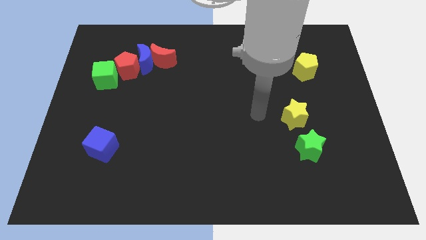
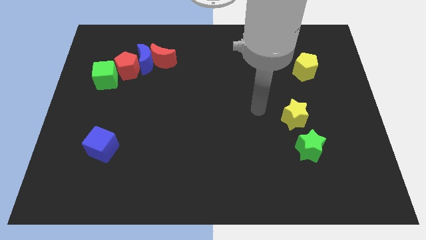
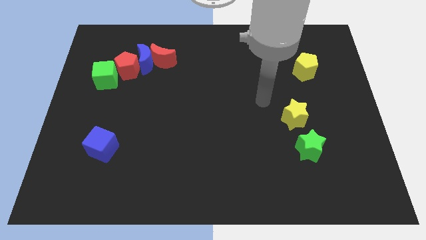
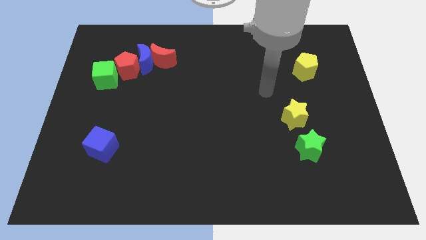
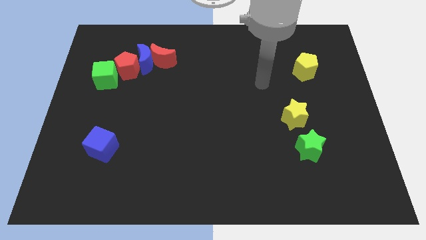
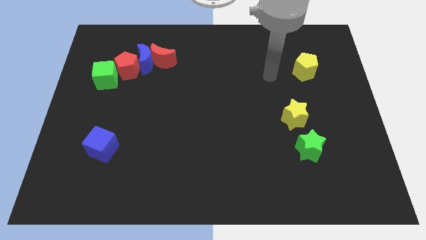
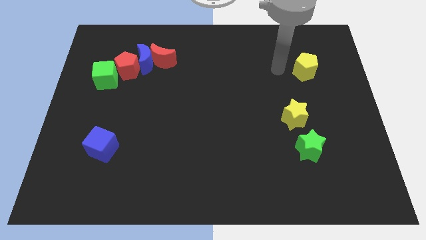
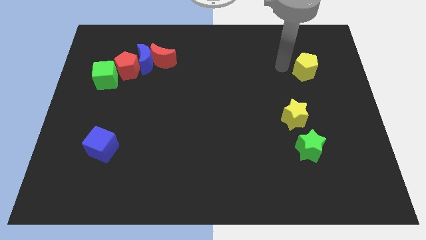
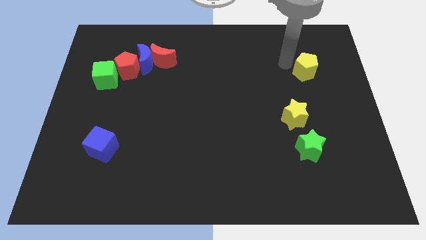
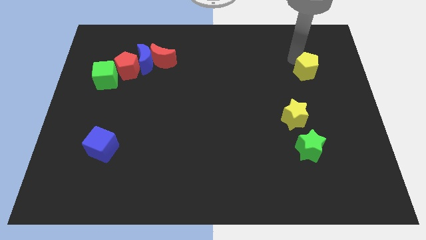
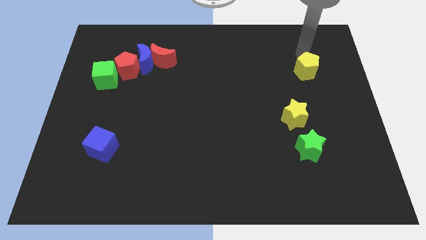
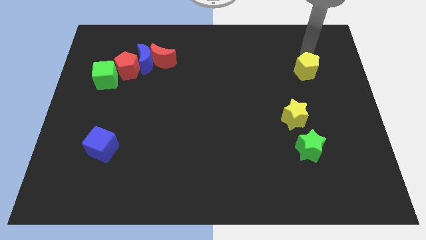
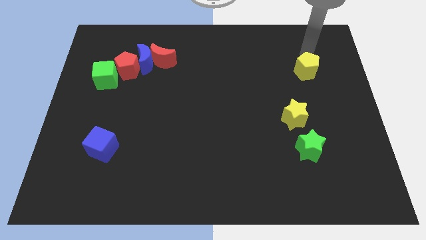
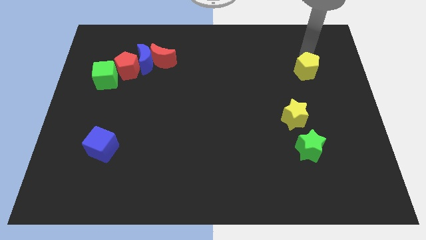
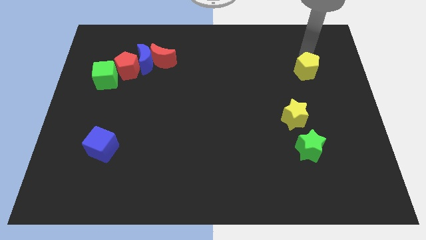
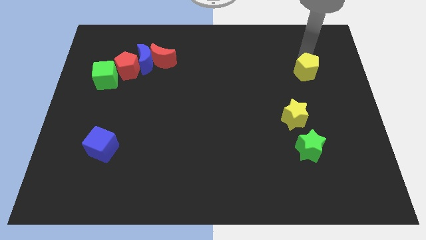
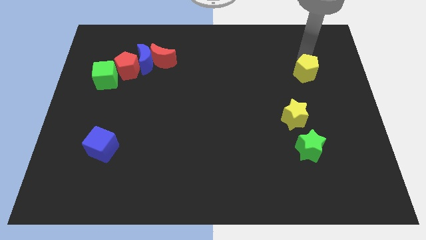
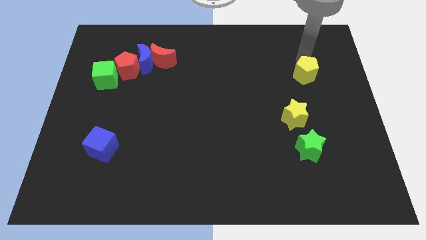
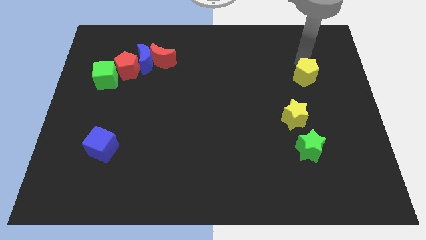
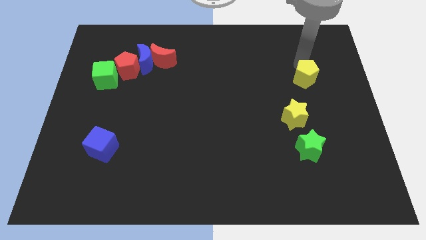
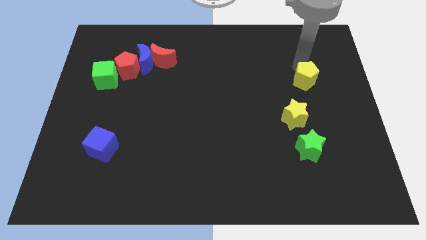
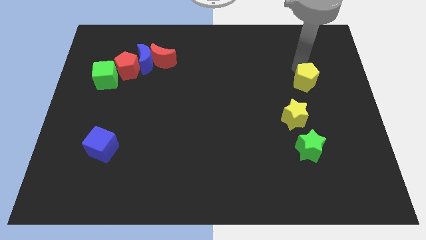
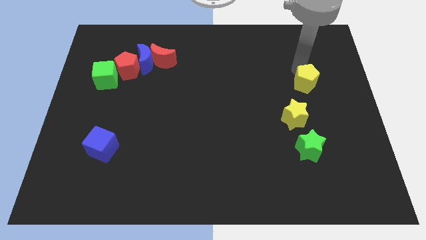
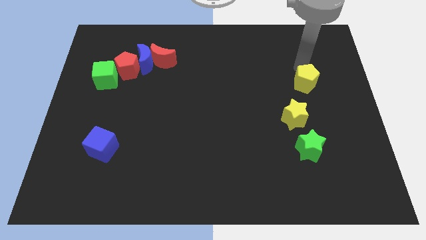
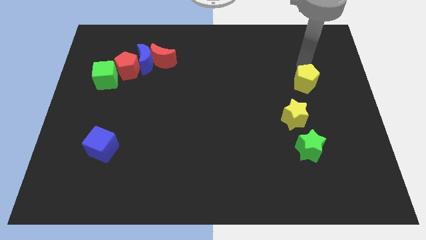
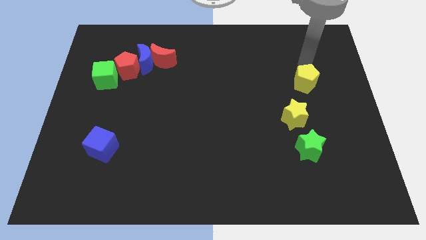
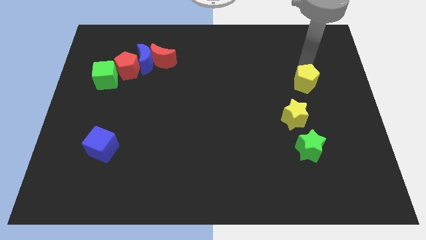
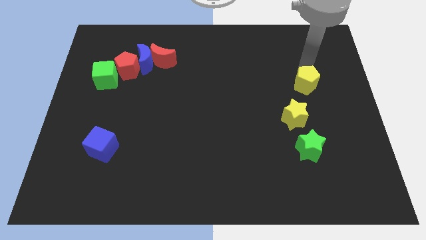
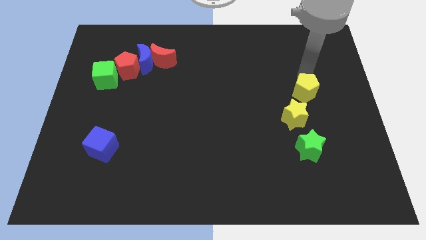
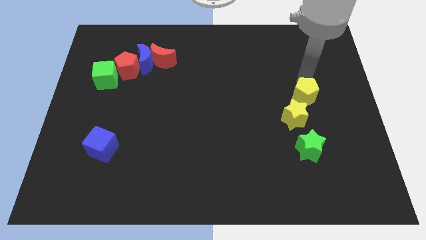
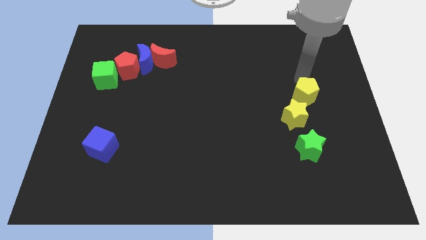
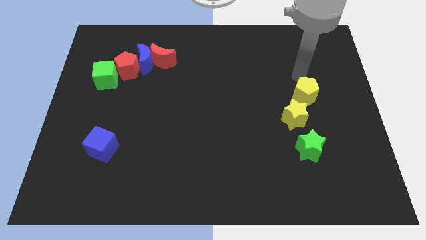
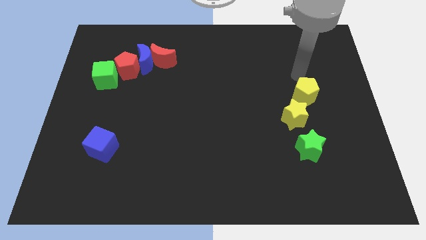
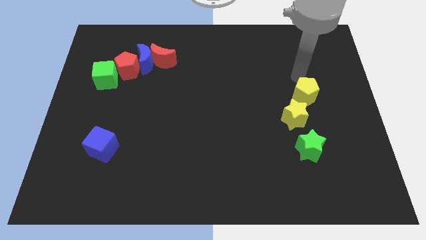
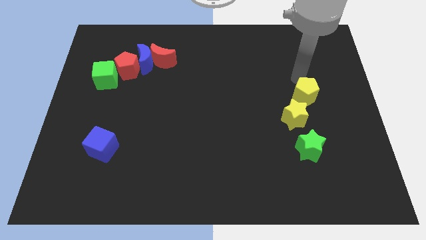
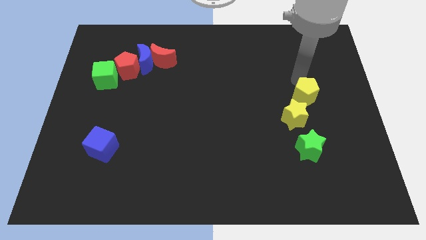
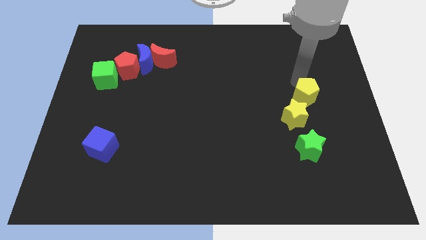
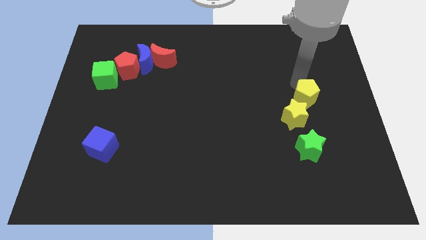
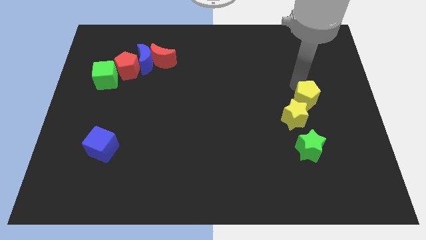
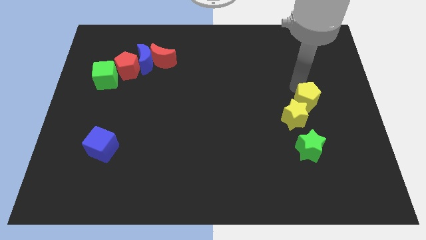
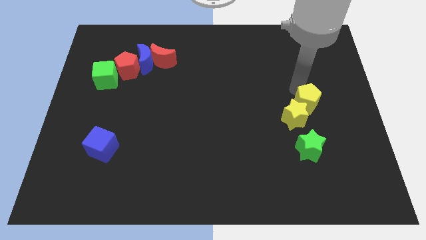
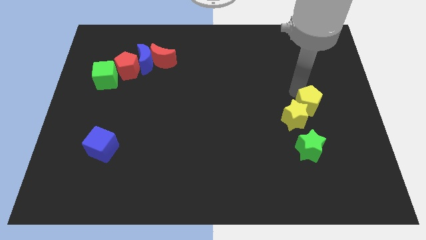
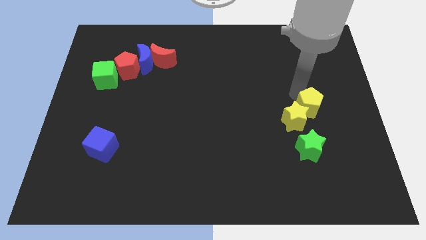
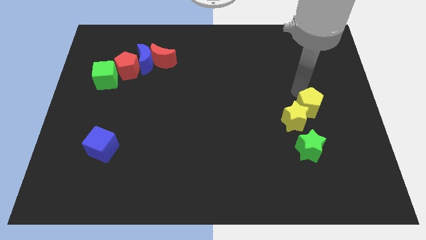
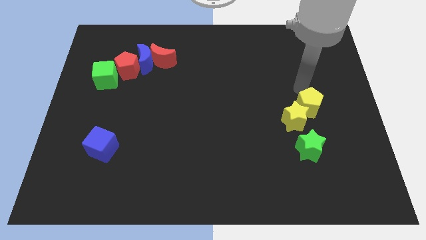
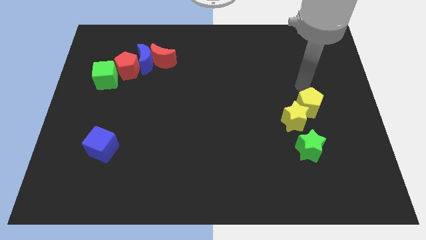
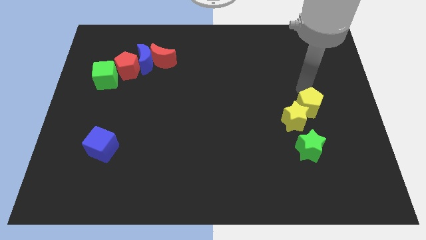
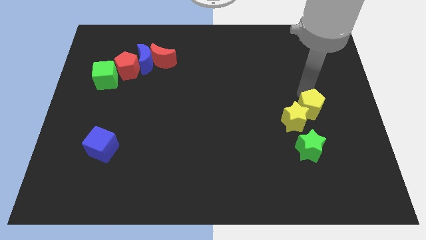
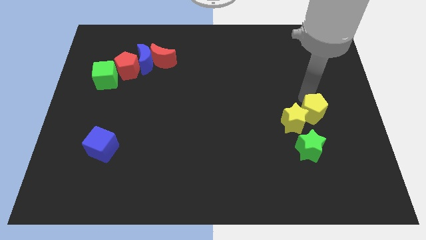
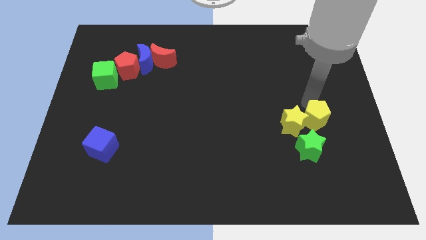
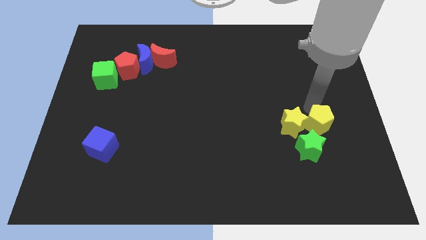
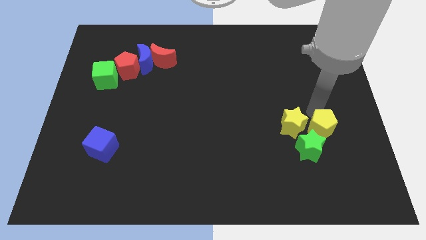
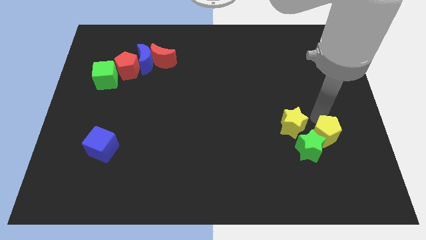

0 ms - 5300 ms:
slide the yellow pentagon next to the green star

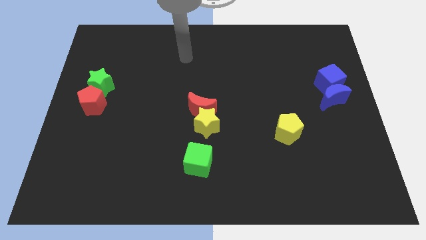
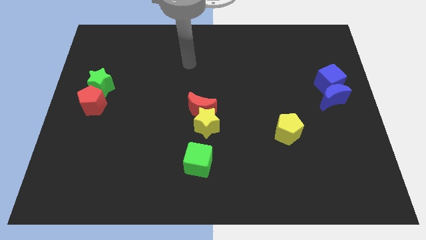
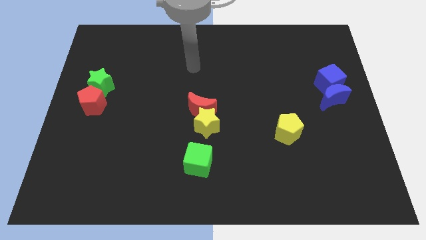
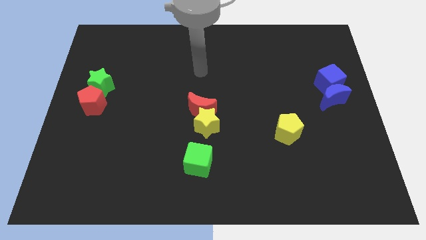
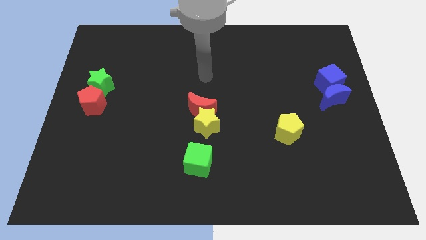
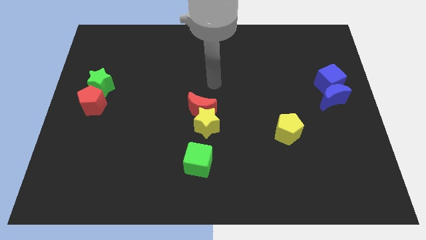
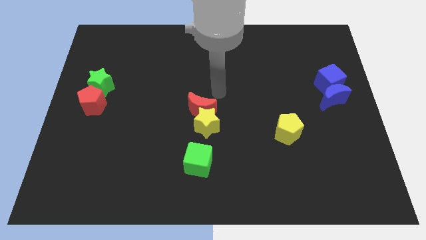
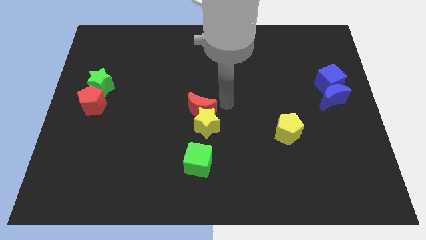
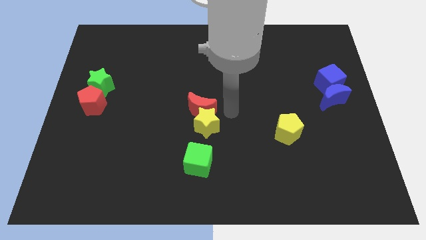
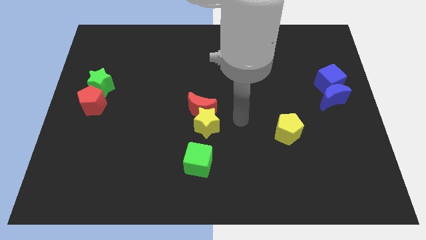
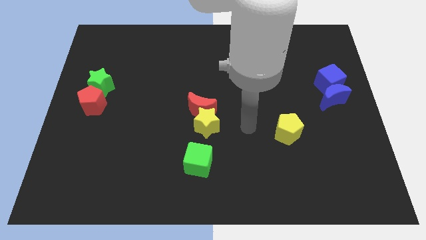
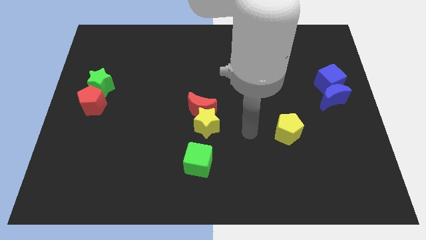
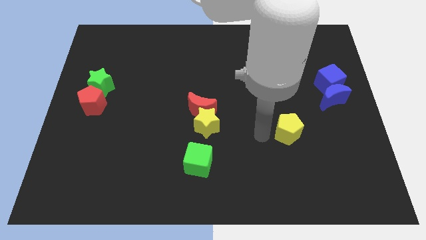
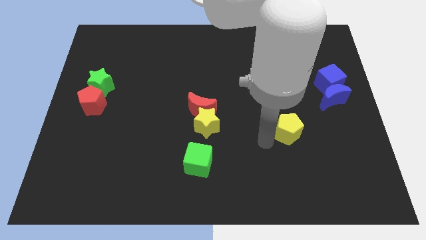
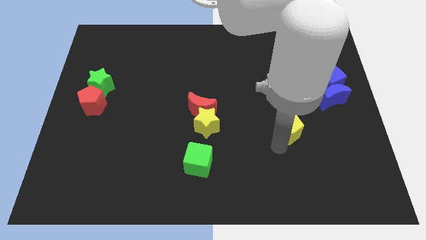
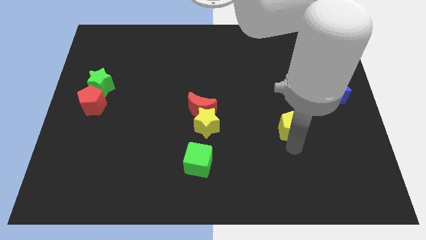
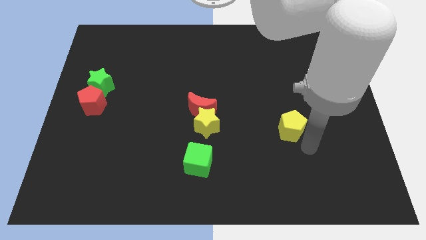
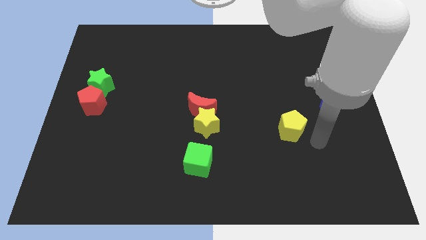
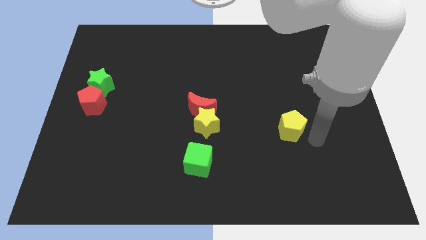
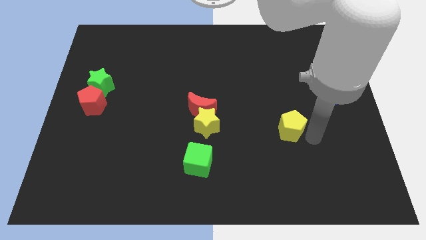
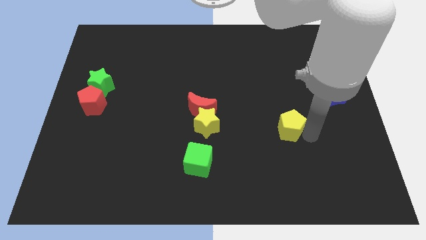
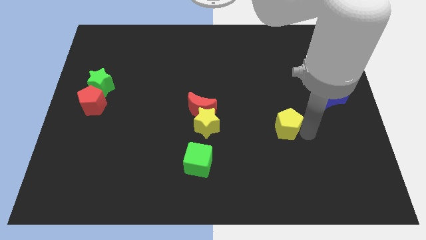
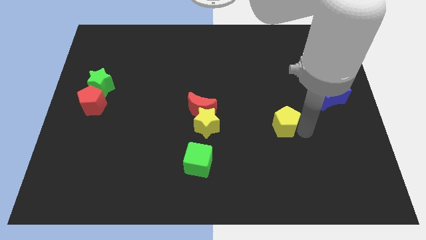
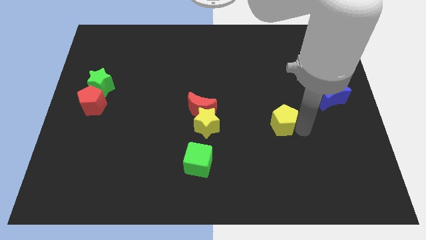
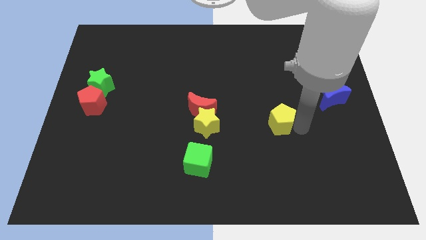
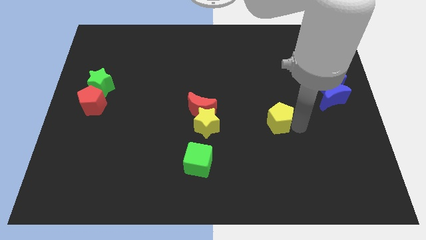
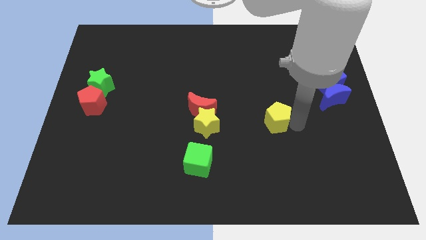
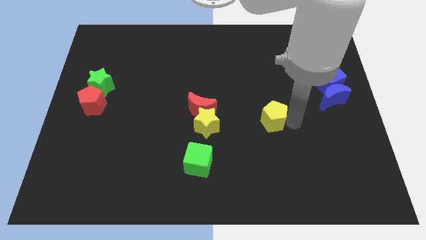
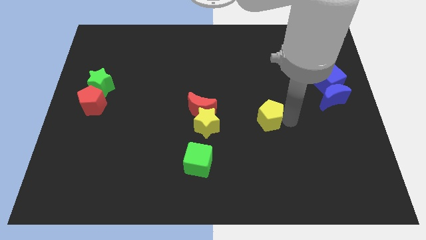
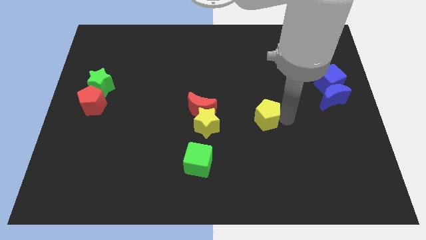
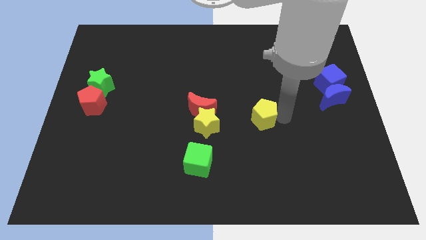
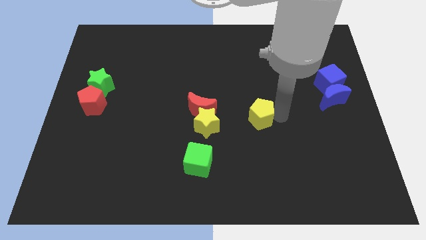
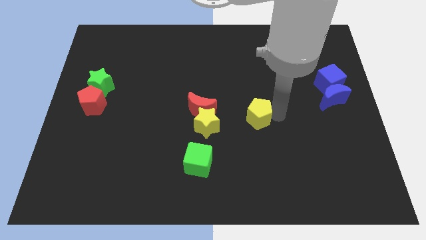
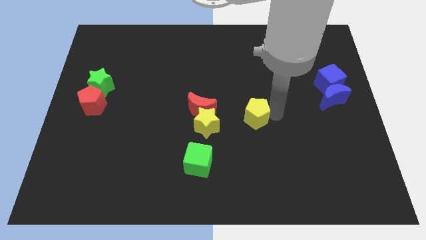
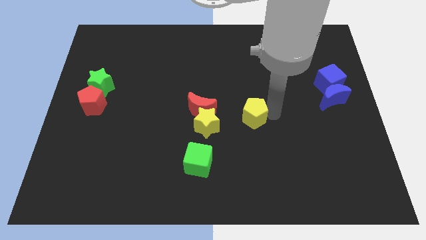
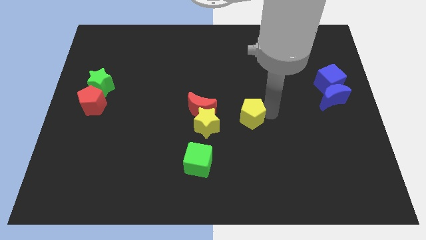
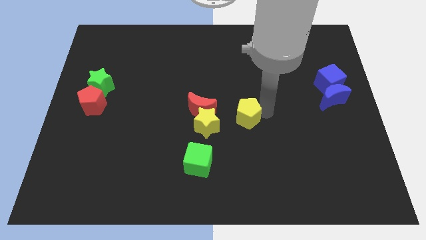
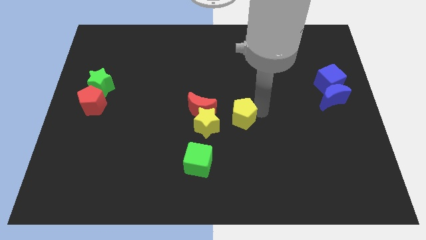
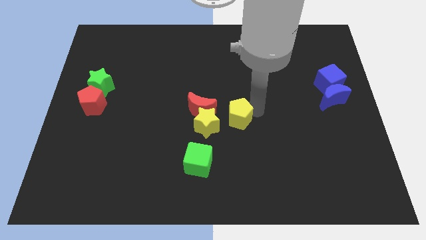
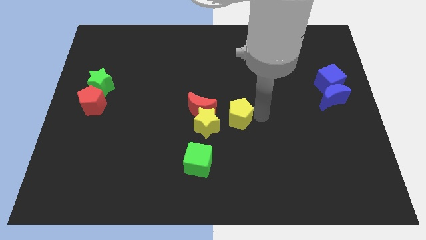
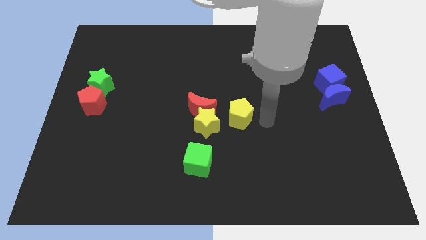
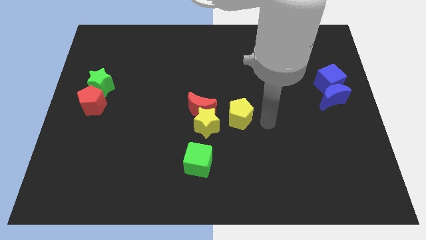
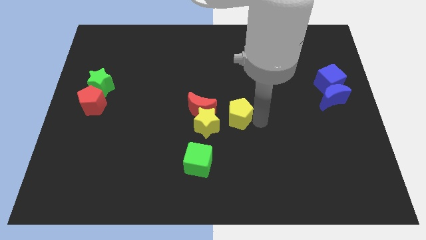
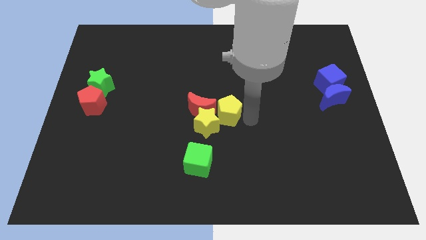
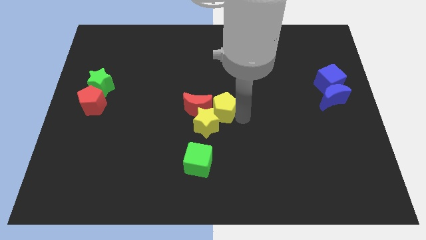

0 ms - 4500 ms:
put the yellow pentagon next to the red moon
